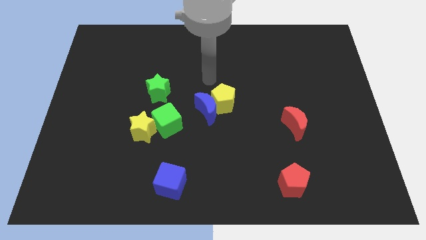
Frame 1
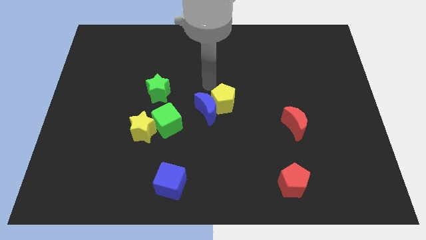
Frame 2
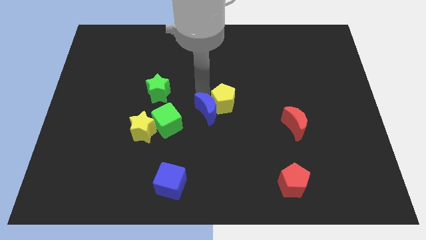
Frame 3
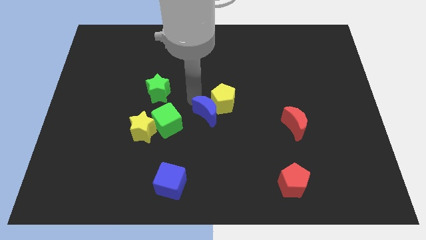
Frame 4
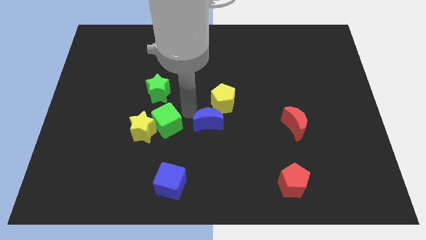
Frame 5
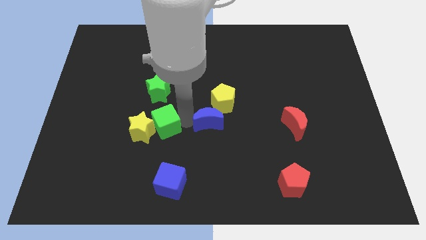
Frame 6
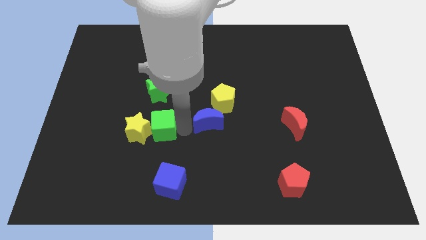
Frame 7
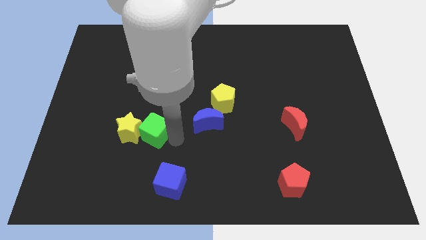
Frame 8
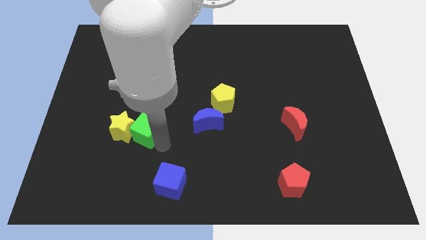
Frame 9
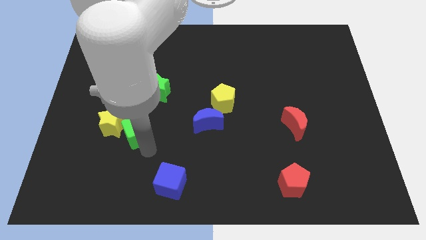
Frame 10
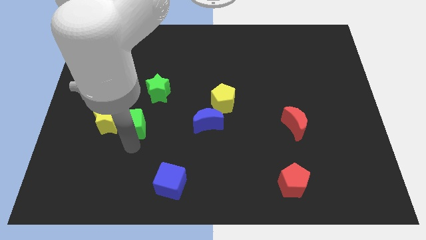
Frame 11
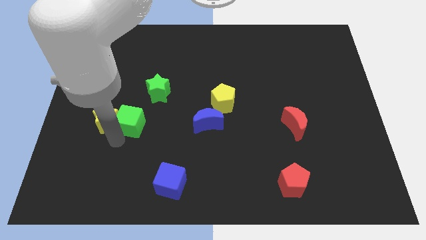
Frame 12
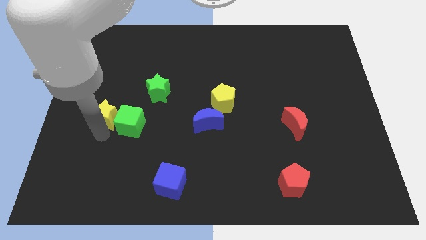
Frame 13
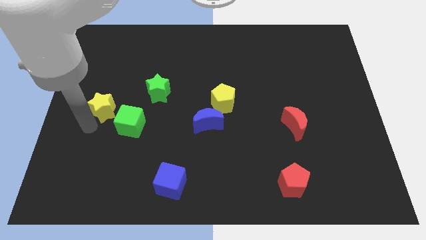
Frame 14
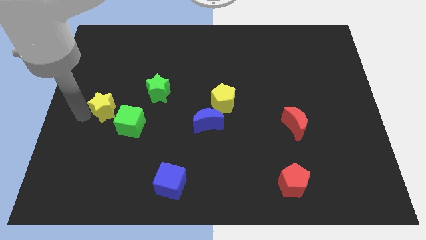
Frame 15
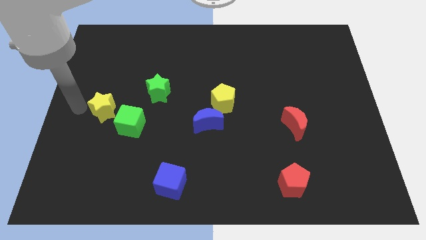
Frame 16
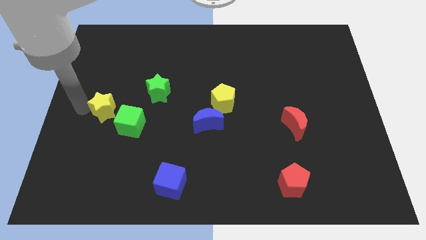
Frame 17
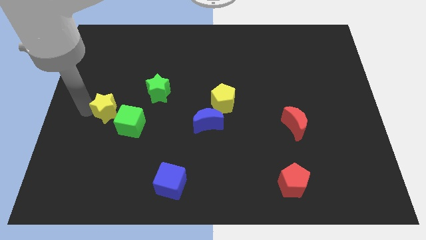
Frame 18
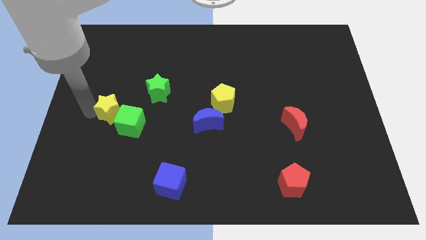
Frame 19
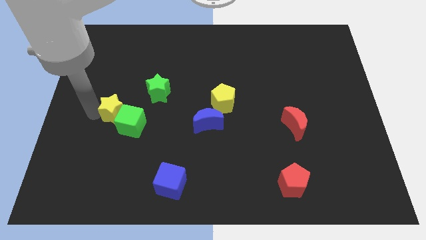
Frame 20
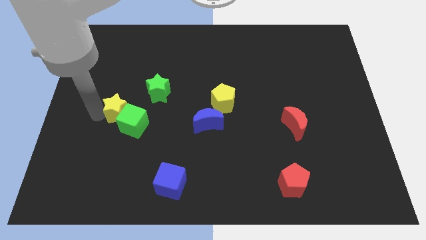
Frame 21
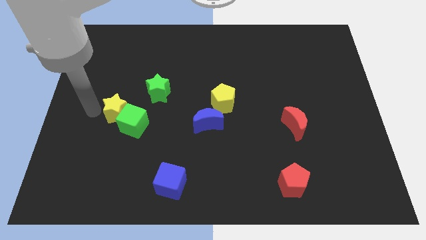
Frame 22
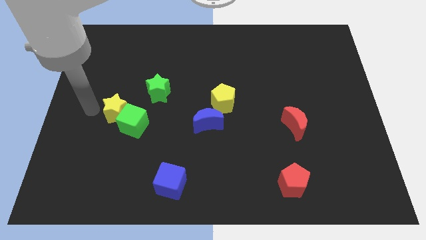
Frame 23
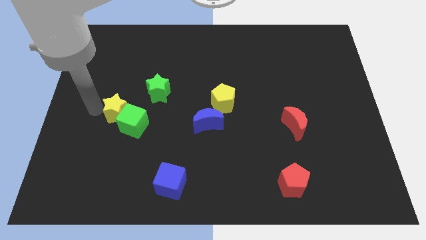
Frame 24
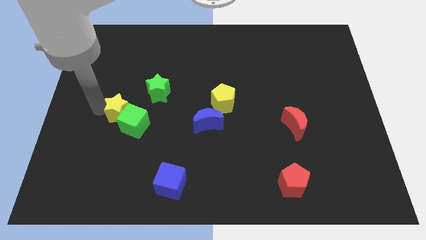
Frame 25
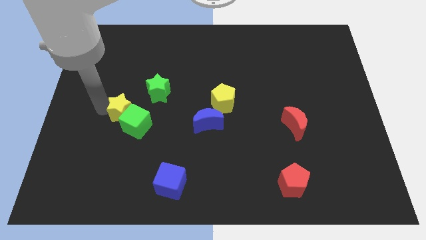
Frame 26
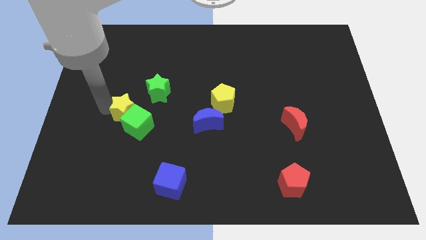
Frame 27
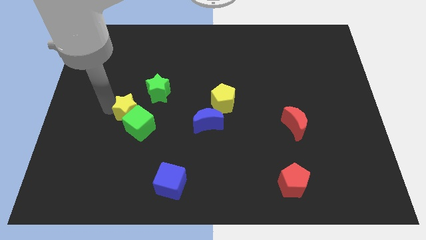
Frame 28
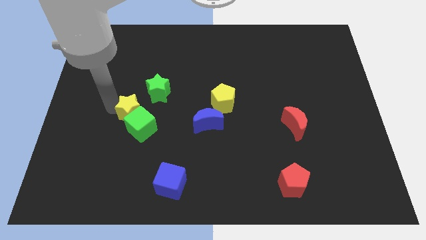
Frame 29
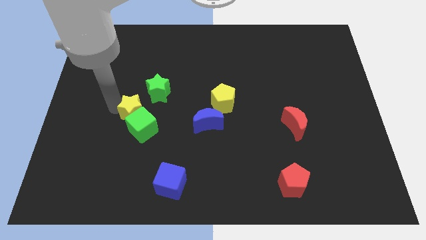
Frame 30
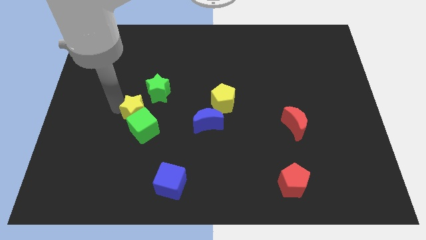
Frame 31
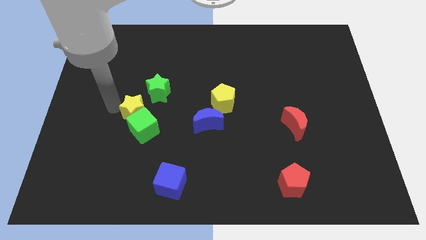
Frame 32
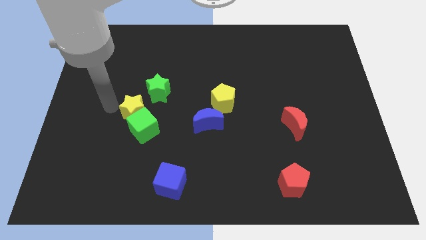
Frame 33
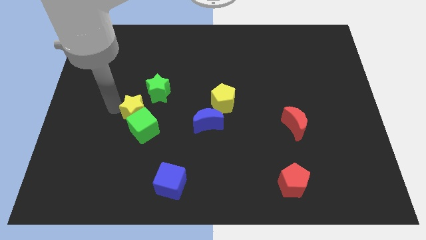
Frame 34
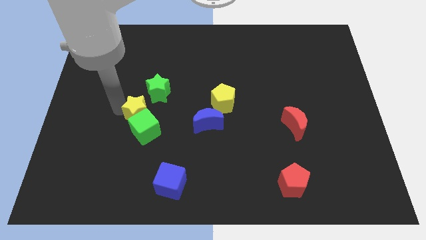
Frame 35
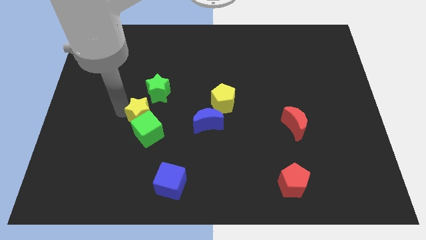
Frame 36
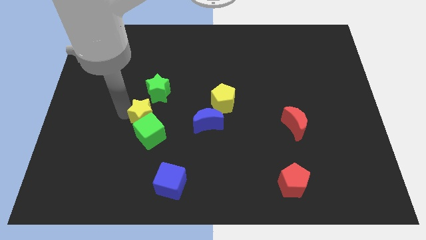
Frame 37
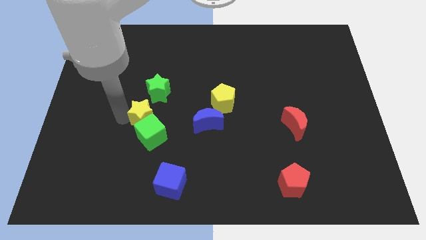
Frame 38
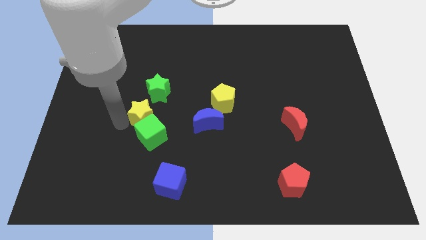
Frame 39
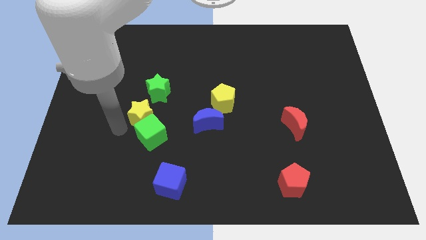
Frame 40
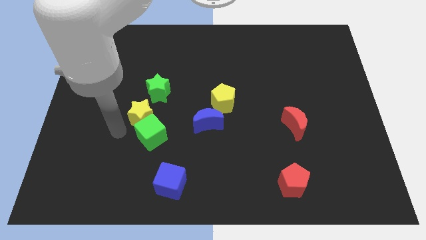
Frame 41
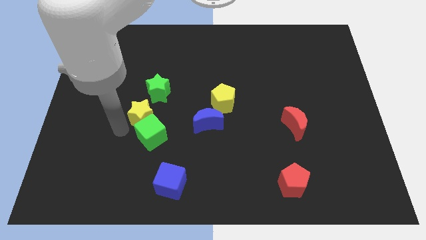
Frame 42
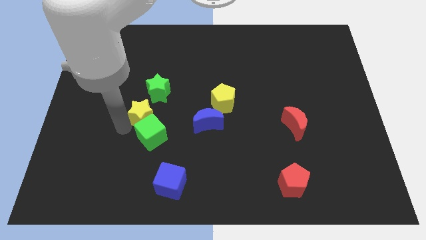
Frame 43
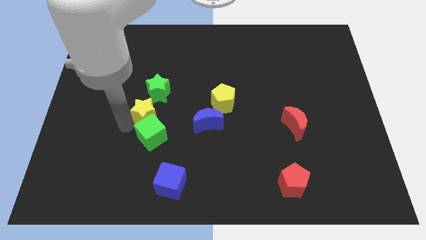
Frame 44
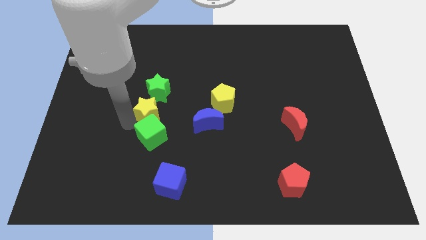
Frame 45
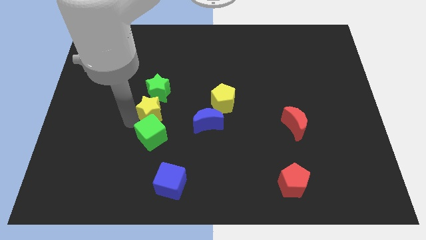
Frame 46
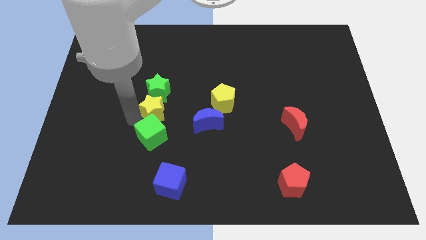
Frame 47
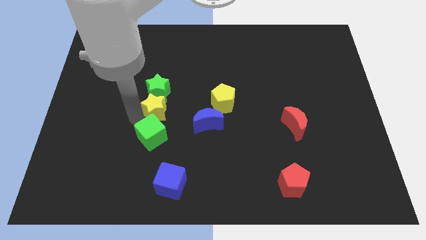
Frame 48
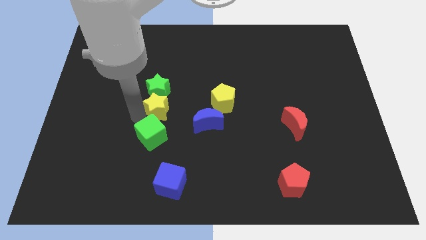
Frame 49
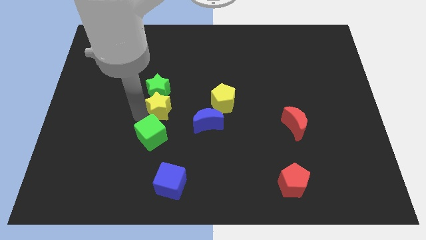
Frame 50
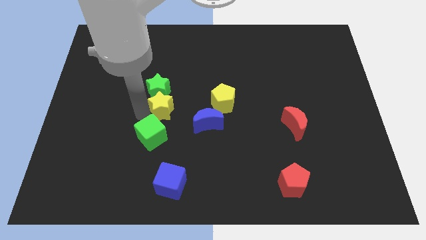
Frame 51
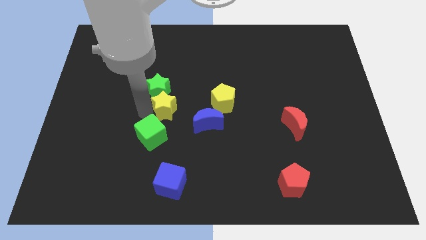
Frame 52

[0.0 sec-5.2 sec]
put the yellow star to the top left of the blue moon

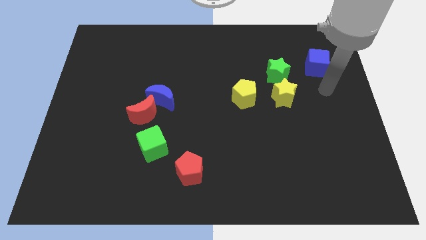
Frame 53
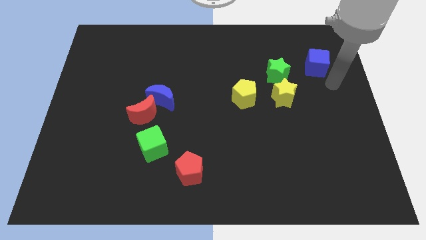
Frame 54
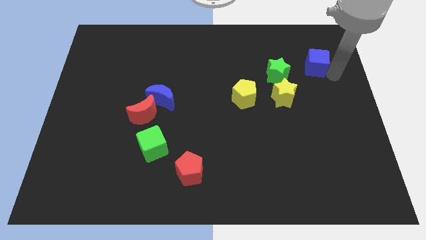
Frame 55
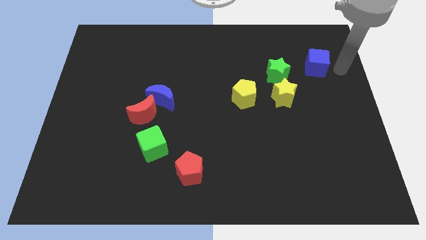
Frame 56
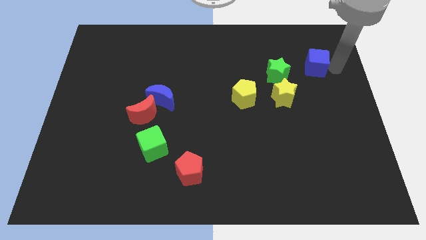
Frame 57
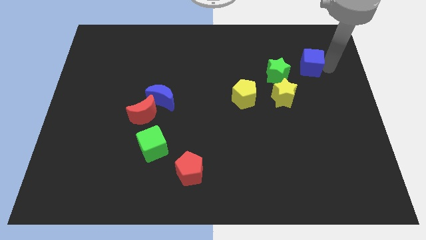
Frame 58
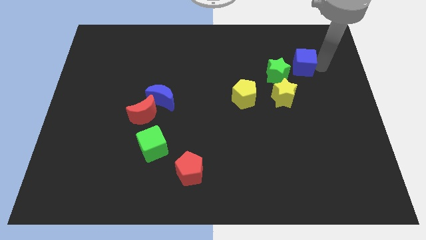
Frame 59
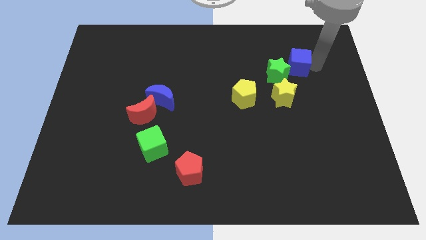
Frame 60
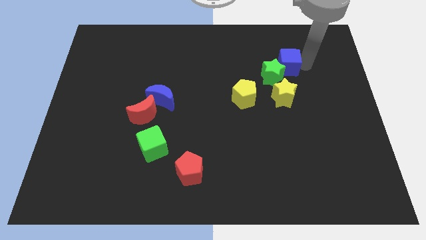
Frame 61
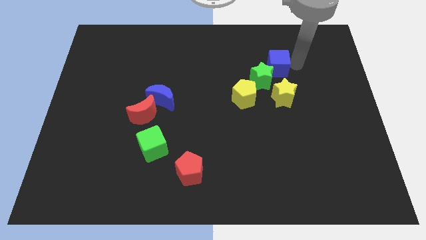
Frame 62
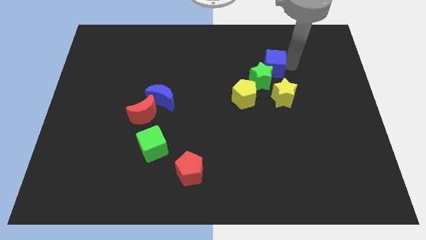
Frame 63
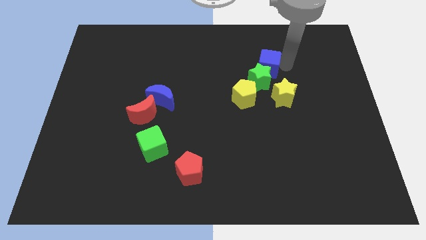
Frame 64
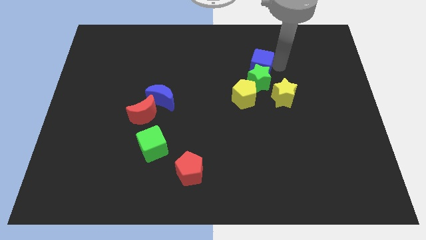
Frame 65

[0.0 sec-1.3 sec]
push the blue cube to the top of the yellow pentagon

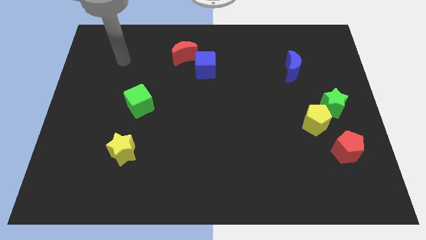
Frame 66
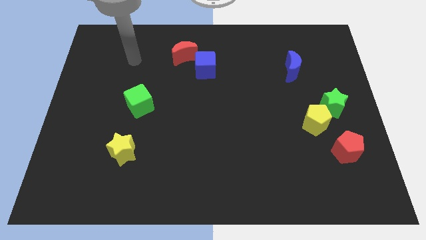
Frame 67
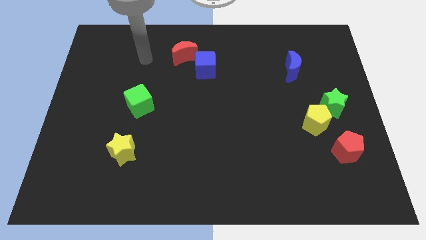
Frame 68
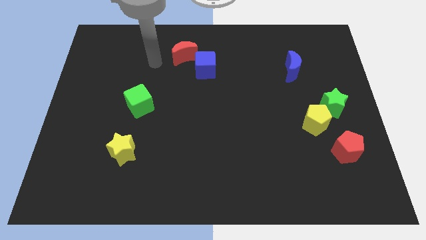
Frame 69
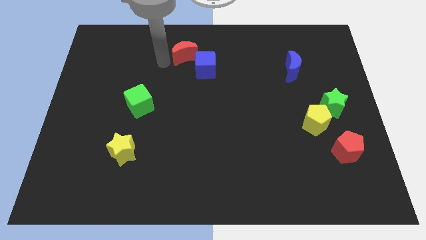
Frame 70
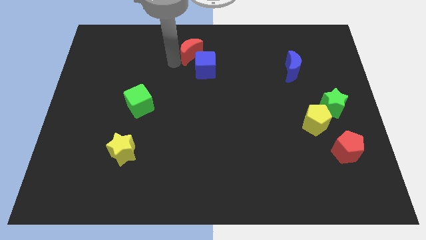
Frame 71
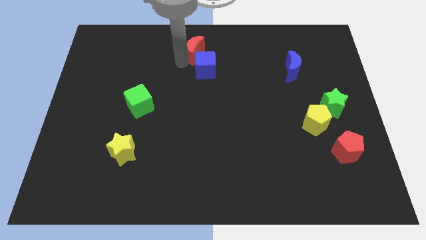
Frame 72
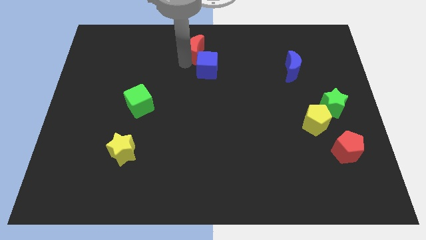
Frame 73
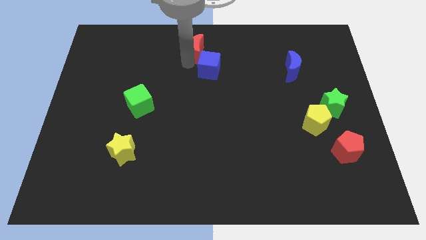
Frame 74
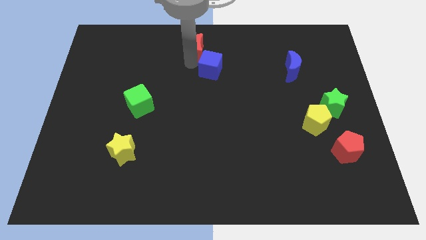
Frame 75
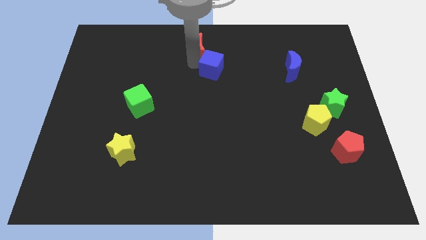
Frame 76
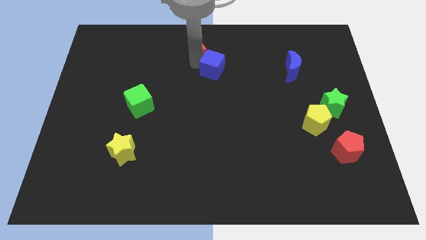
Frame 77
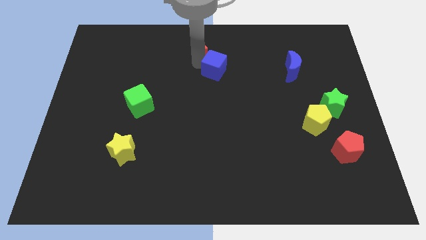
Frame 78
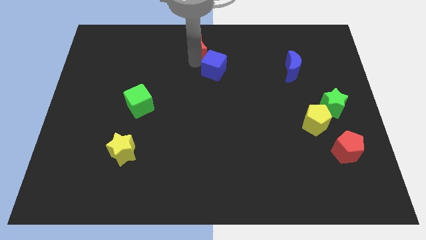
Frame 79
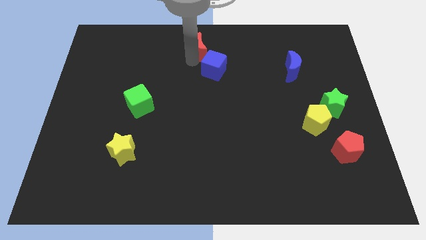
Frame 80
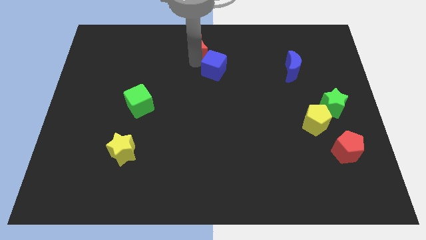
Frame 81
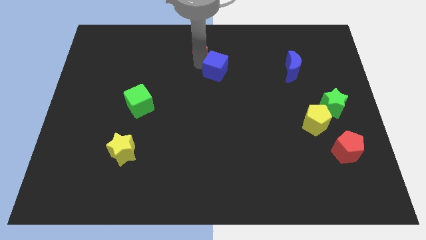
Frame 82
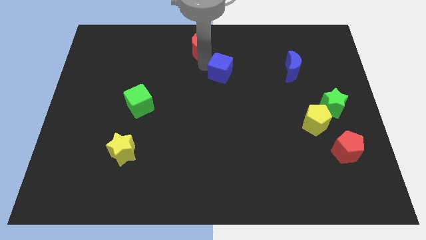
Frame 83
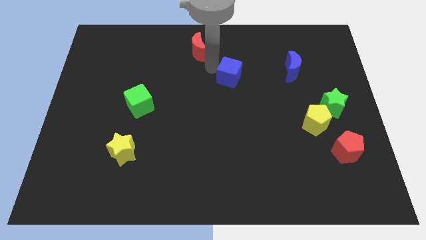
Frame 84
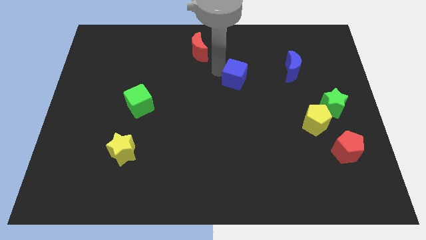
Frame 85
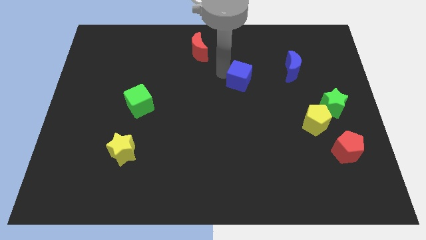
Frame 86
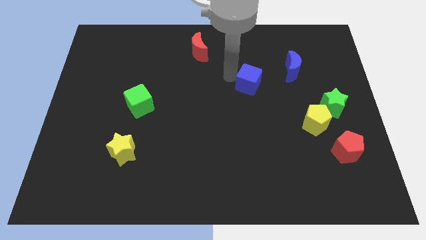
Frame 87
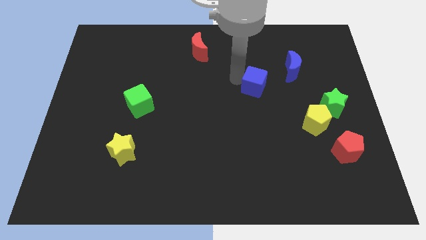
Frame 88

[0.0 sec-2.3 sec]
slide the blue cube to the bottom left side of the blue moon
